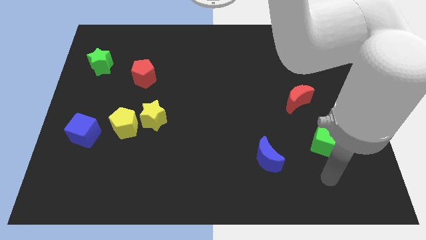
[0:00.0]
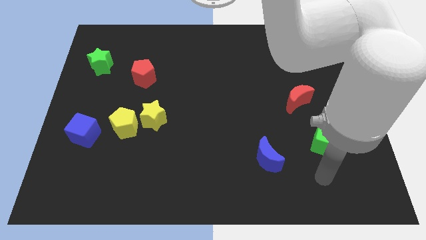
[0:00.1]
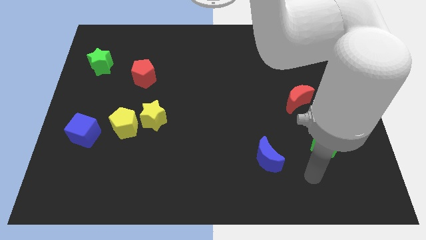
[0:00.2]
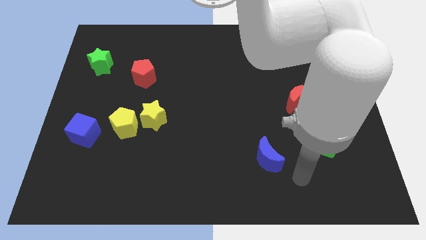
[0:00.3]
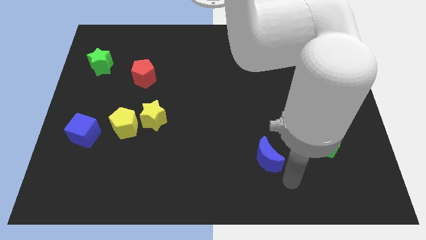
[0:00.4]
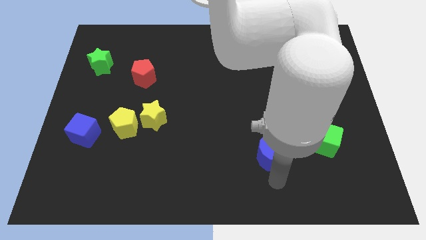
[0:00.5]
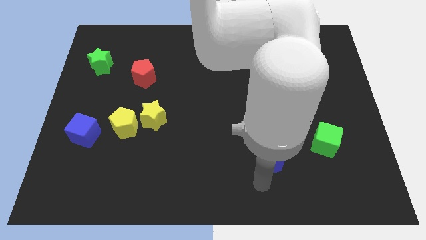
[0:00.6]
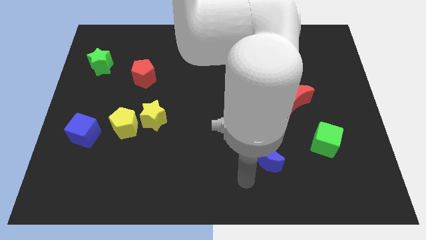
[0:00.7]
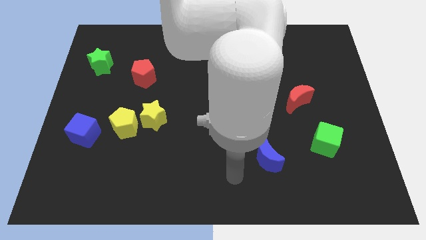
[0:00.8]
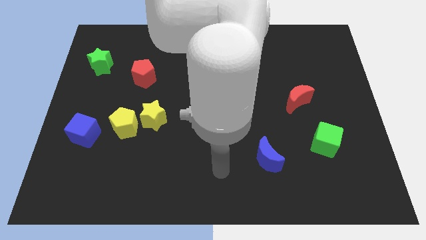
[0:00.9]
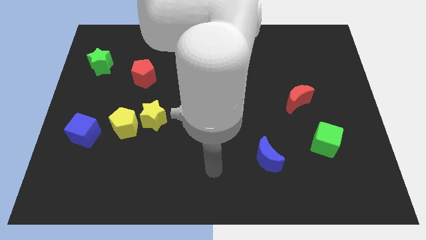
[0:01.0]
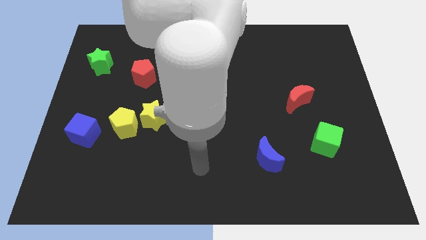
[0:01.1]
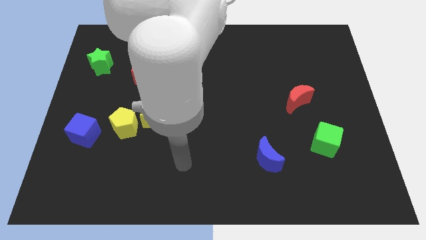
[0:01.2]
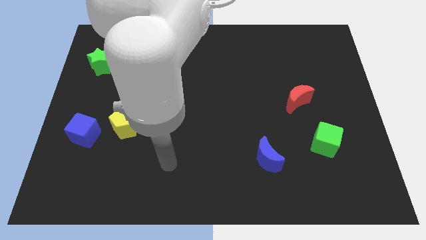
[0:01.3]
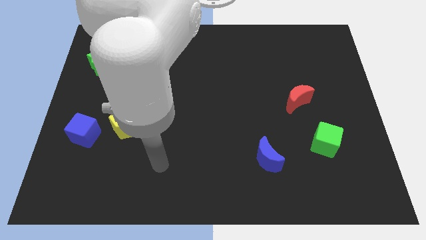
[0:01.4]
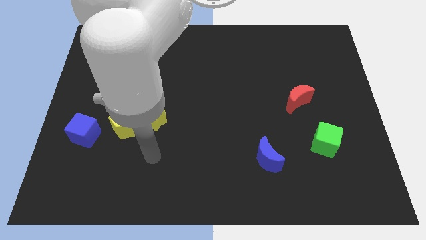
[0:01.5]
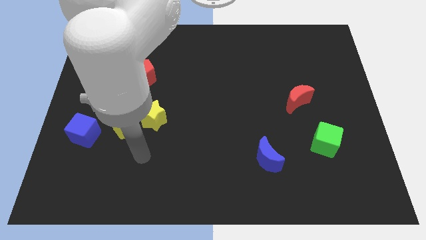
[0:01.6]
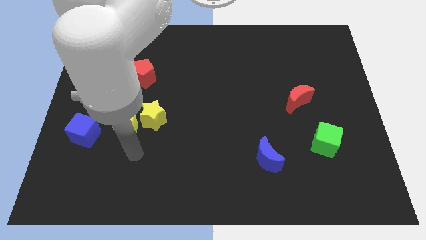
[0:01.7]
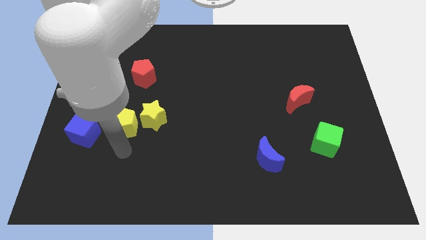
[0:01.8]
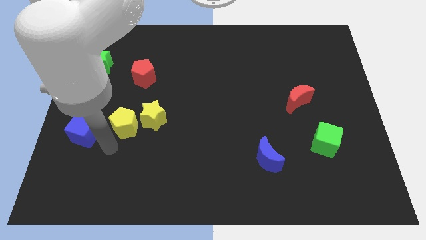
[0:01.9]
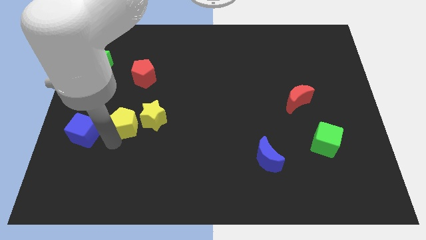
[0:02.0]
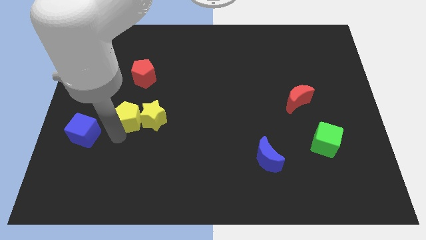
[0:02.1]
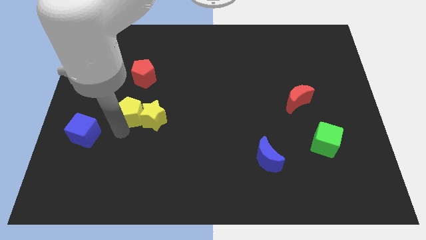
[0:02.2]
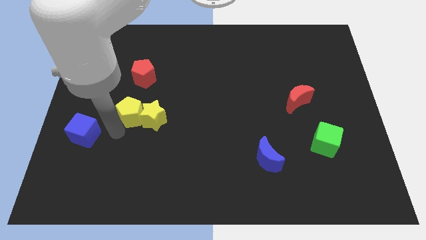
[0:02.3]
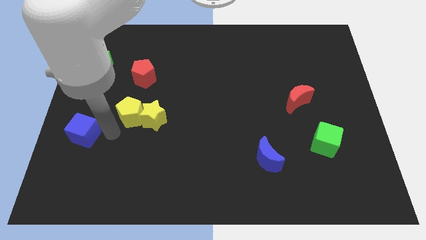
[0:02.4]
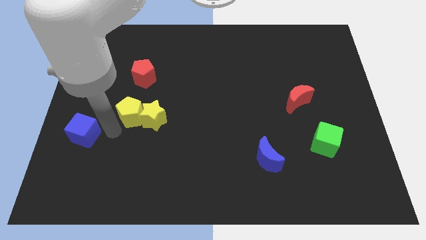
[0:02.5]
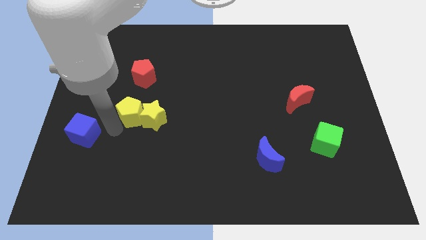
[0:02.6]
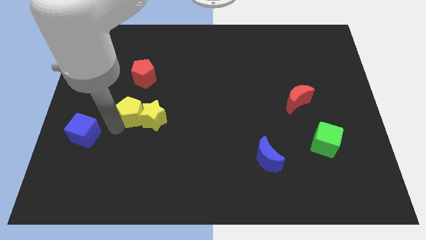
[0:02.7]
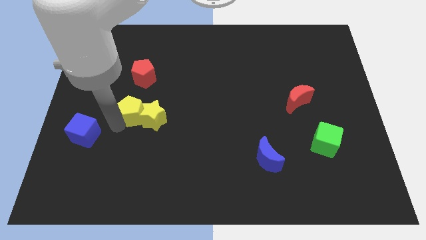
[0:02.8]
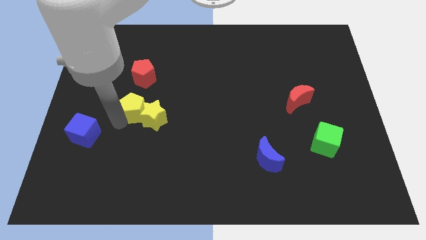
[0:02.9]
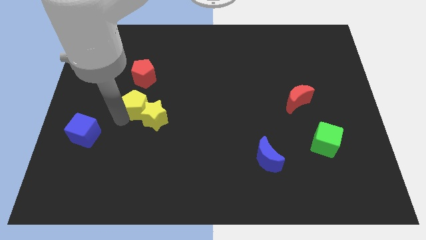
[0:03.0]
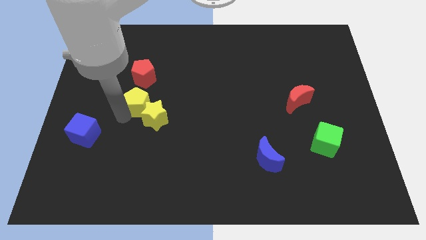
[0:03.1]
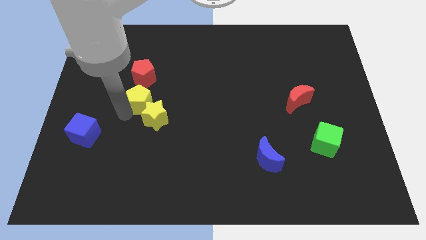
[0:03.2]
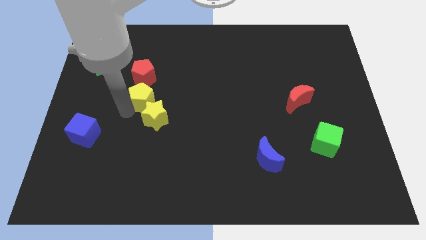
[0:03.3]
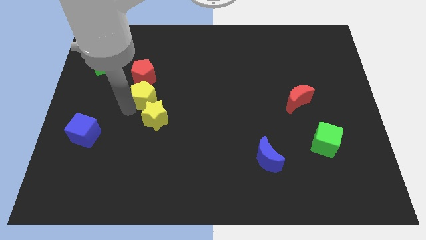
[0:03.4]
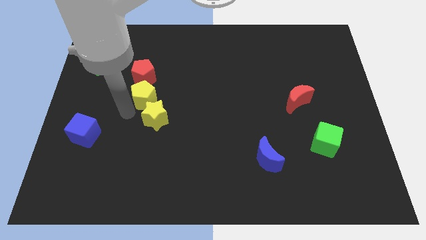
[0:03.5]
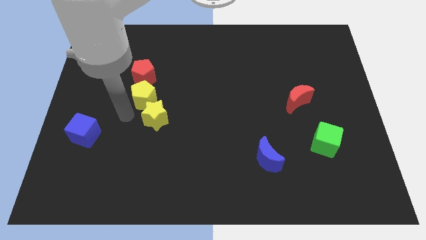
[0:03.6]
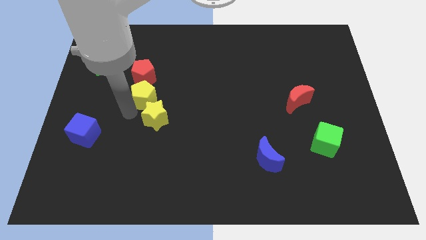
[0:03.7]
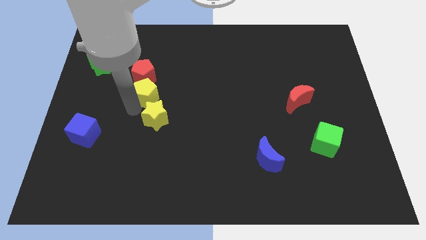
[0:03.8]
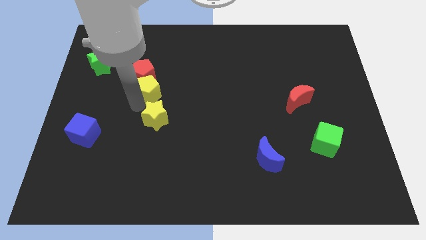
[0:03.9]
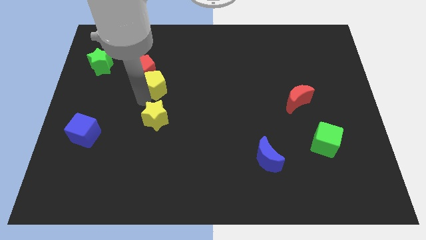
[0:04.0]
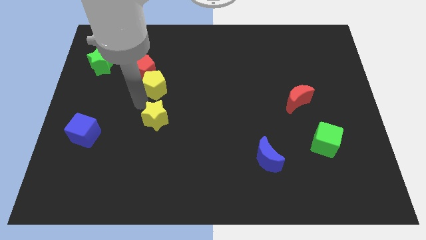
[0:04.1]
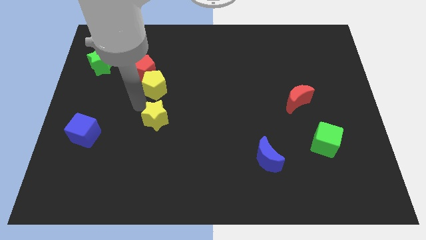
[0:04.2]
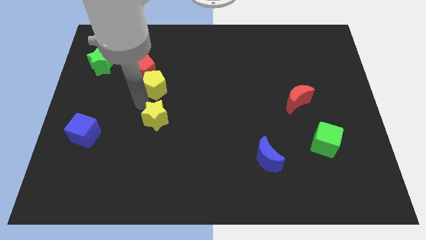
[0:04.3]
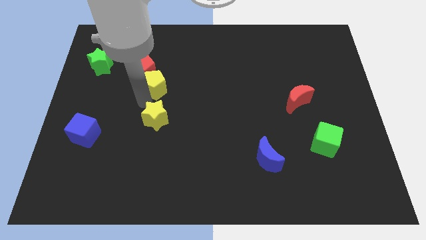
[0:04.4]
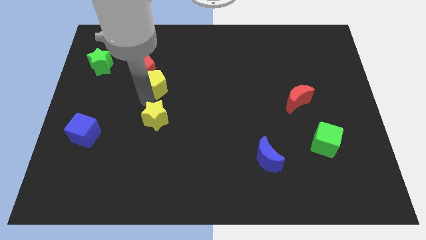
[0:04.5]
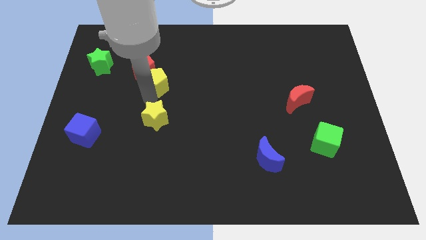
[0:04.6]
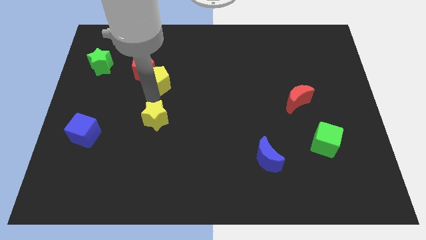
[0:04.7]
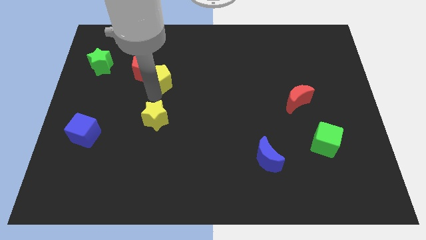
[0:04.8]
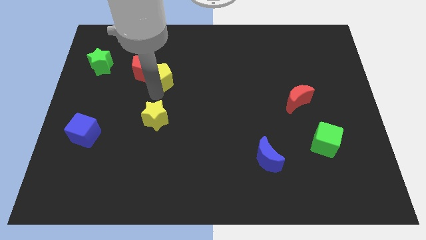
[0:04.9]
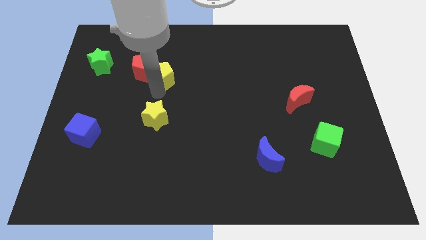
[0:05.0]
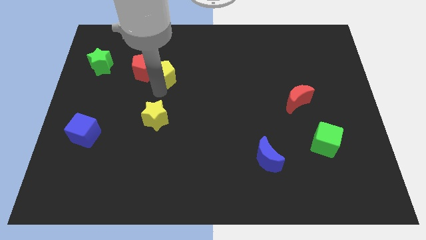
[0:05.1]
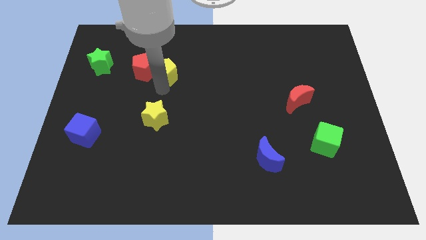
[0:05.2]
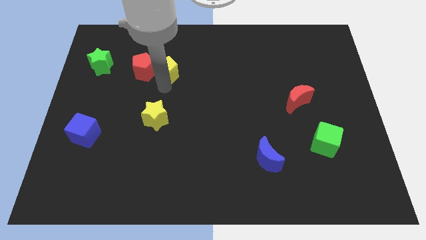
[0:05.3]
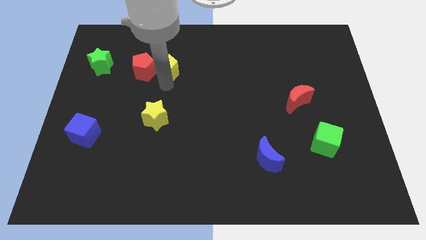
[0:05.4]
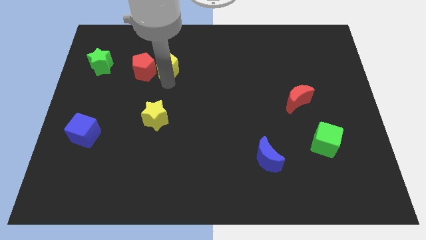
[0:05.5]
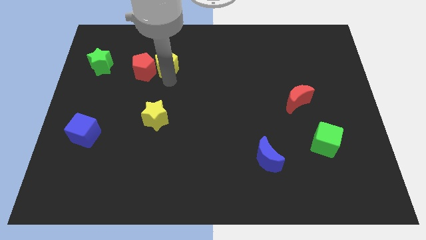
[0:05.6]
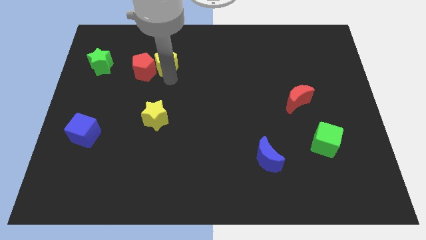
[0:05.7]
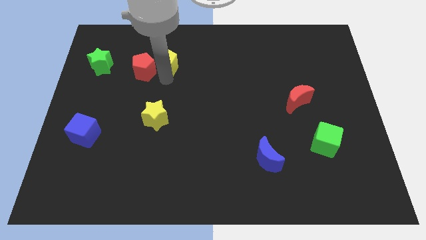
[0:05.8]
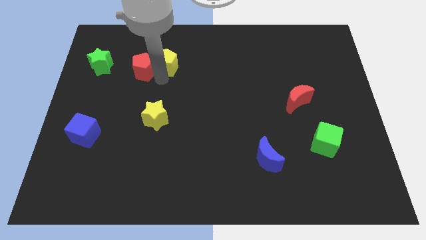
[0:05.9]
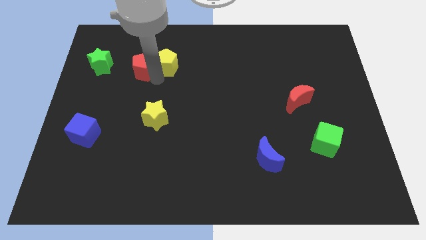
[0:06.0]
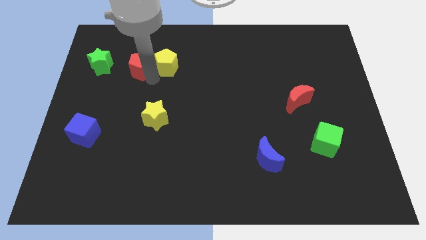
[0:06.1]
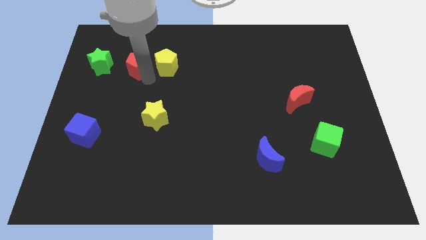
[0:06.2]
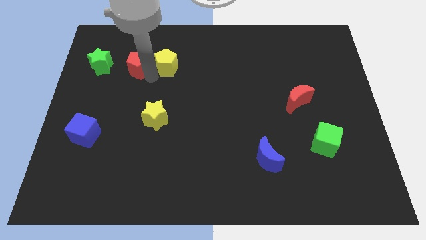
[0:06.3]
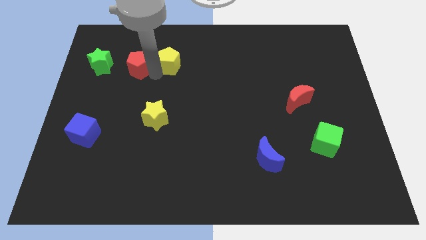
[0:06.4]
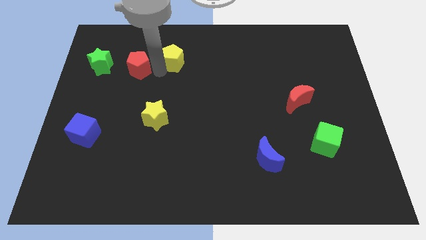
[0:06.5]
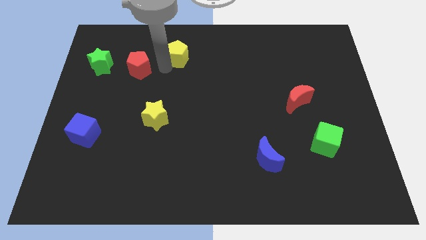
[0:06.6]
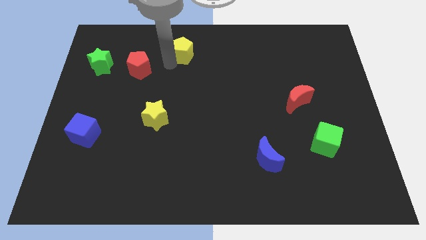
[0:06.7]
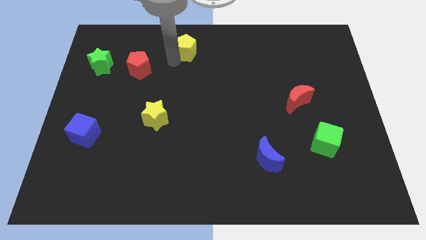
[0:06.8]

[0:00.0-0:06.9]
push the yellow pentagon to the towards your base
